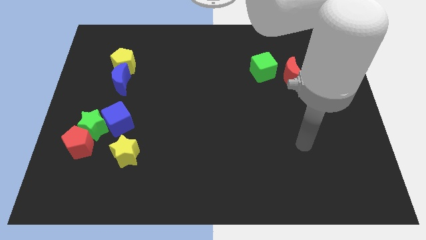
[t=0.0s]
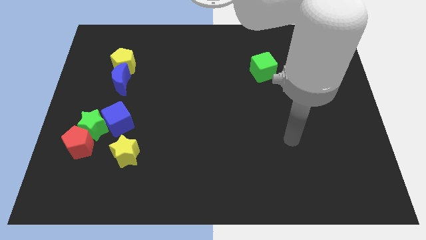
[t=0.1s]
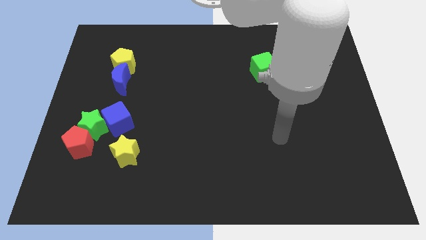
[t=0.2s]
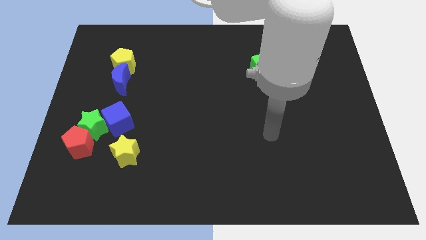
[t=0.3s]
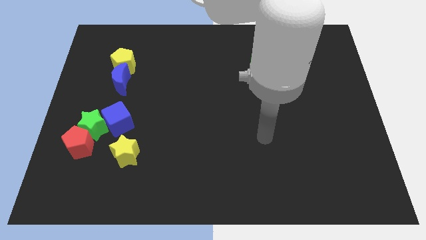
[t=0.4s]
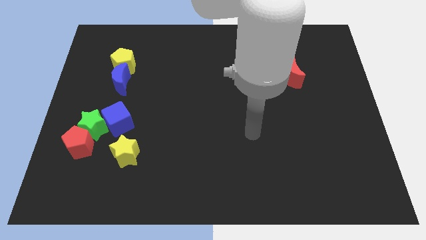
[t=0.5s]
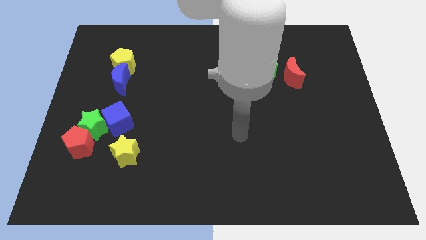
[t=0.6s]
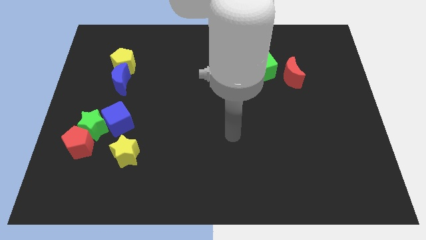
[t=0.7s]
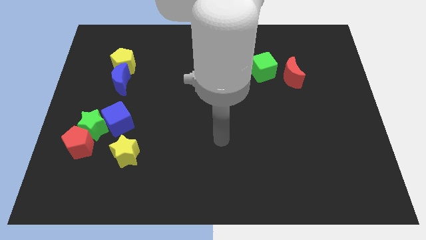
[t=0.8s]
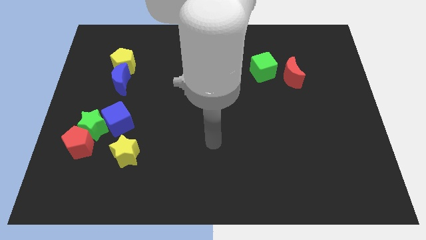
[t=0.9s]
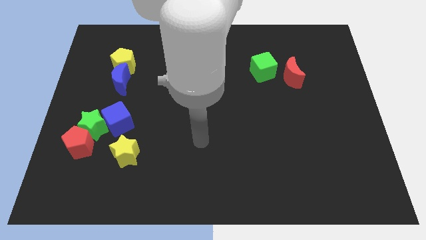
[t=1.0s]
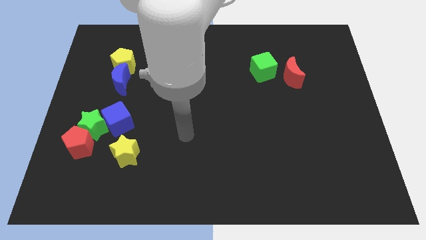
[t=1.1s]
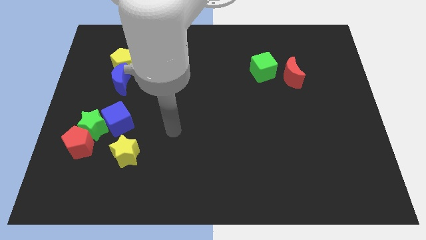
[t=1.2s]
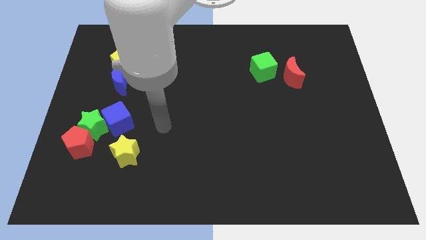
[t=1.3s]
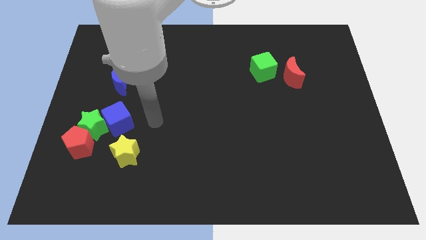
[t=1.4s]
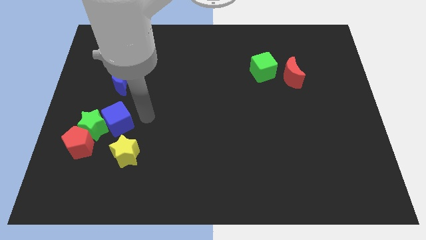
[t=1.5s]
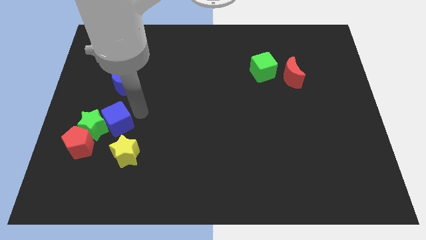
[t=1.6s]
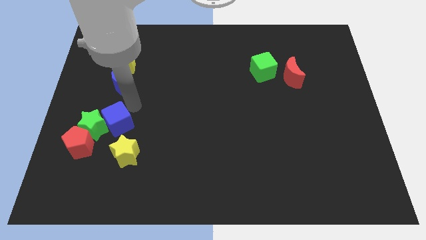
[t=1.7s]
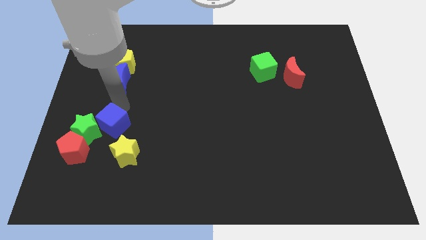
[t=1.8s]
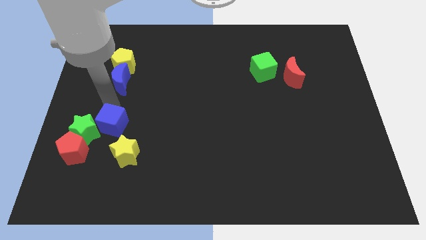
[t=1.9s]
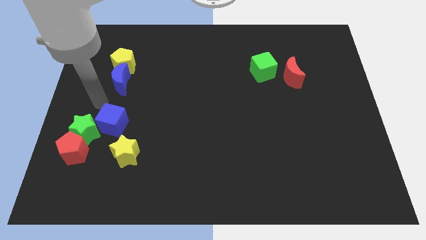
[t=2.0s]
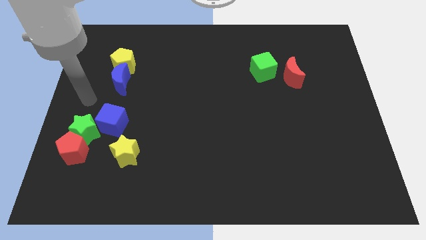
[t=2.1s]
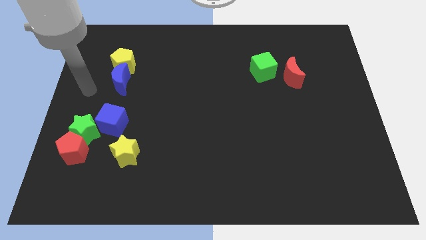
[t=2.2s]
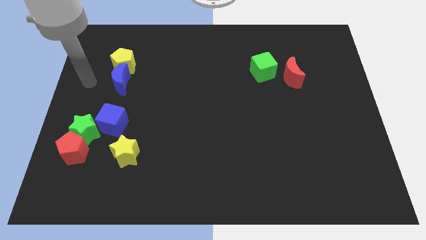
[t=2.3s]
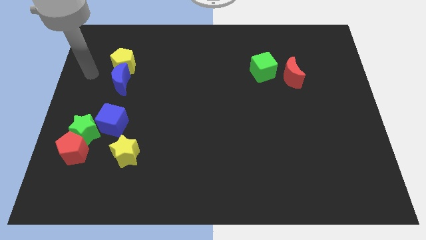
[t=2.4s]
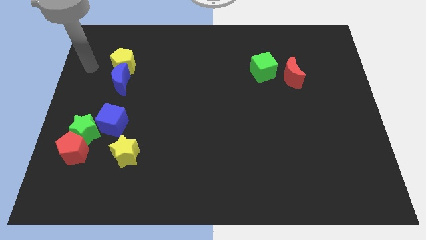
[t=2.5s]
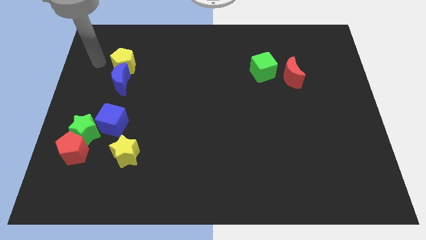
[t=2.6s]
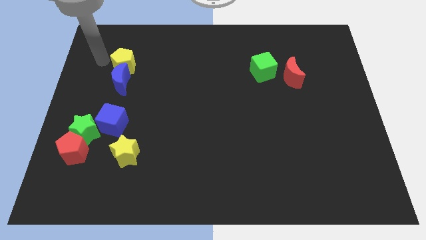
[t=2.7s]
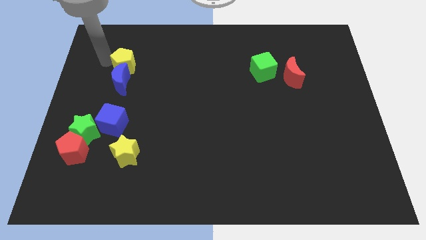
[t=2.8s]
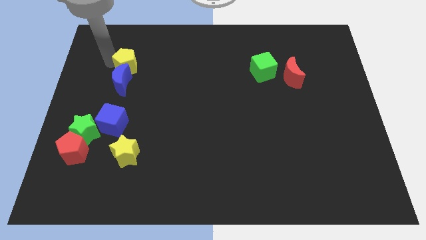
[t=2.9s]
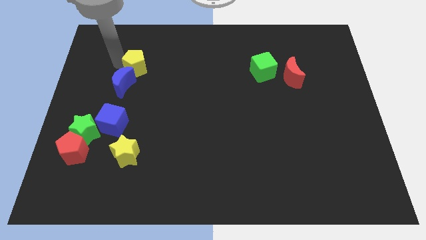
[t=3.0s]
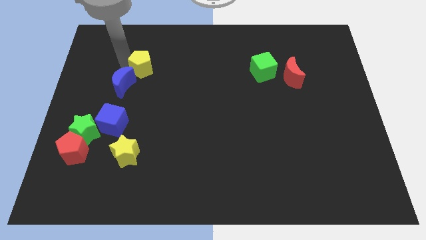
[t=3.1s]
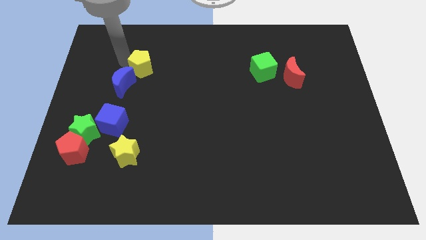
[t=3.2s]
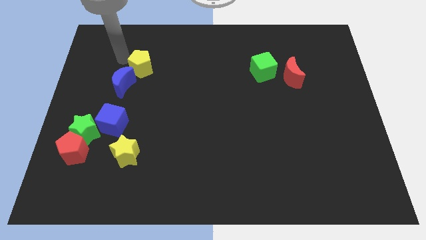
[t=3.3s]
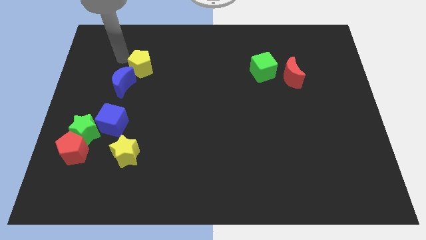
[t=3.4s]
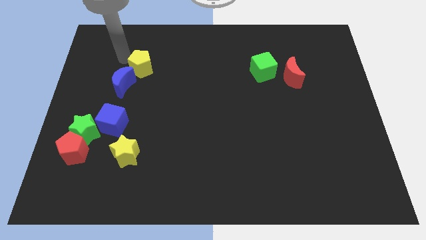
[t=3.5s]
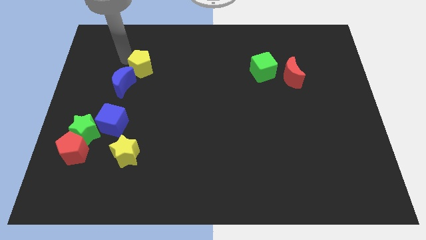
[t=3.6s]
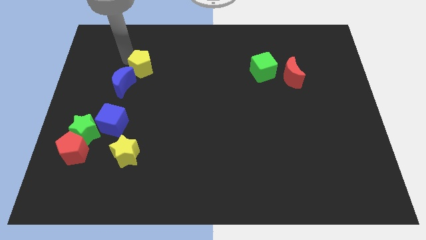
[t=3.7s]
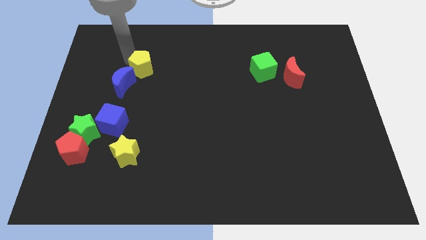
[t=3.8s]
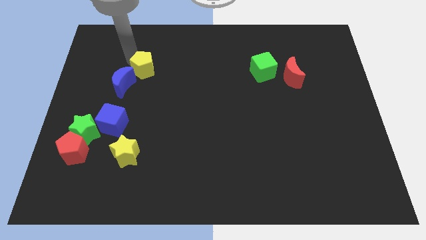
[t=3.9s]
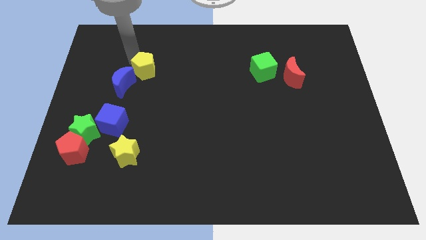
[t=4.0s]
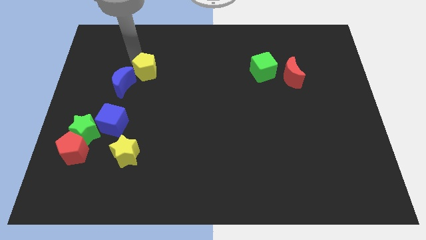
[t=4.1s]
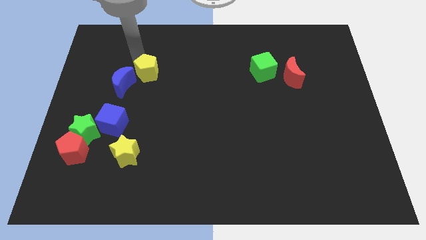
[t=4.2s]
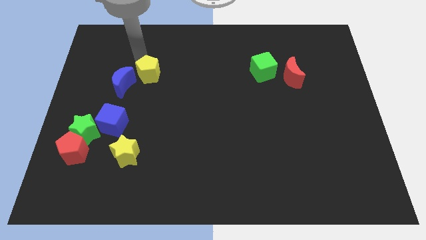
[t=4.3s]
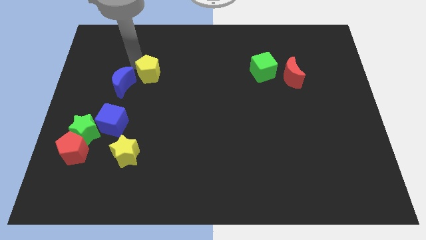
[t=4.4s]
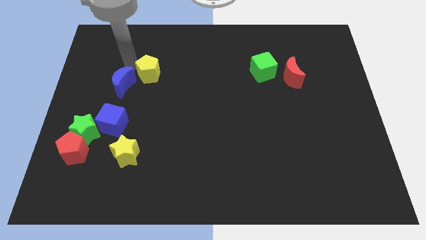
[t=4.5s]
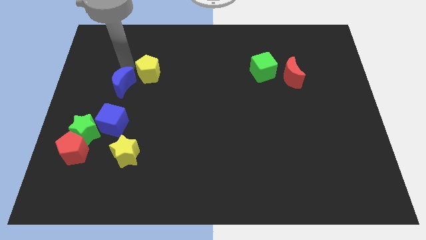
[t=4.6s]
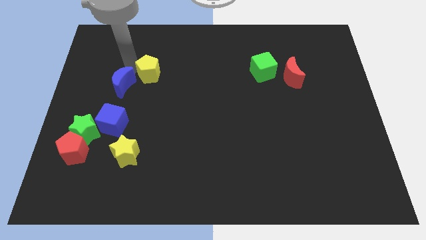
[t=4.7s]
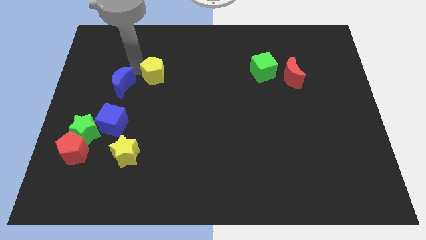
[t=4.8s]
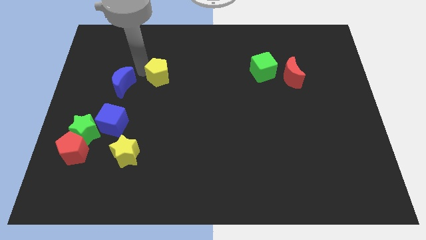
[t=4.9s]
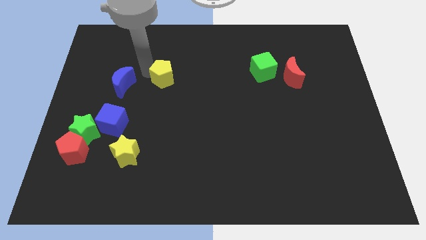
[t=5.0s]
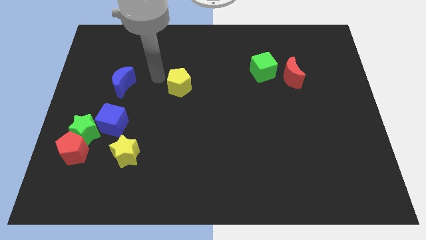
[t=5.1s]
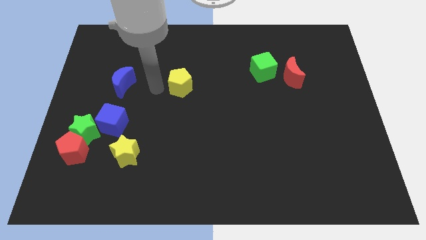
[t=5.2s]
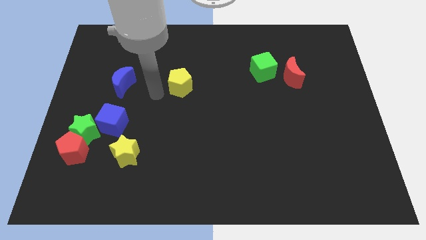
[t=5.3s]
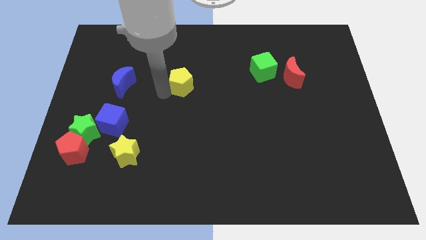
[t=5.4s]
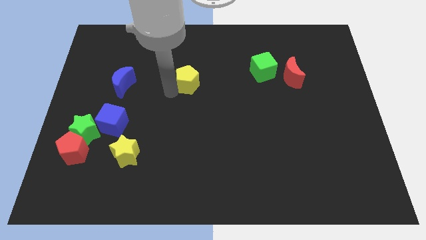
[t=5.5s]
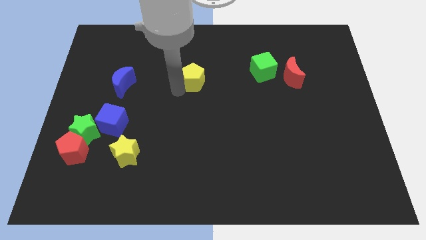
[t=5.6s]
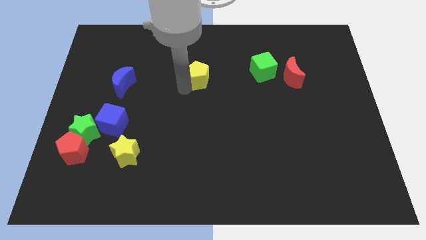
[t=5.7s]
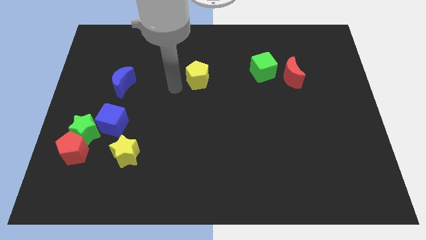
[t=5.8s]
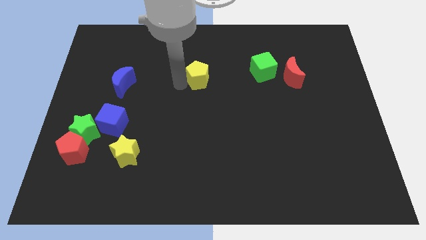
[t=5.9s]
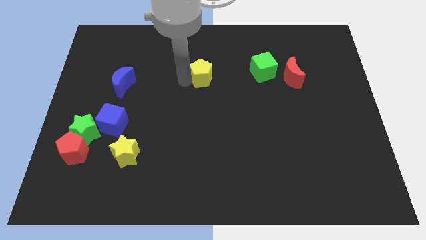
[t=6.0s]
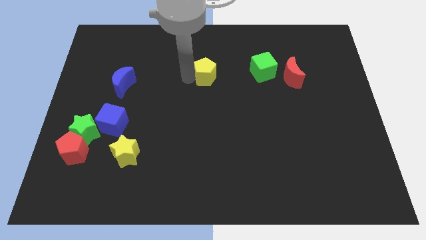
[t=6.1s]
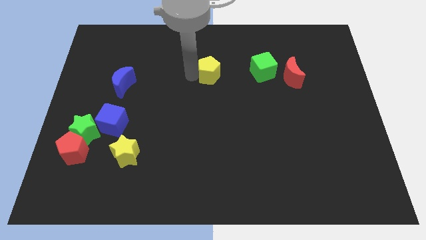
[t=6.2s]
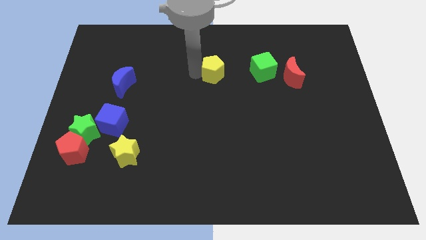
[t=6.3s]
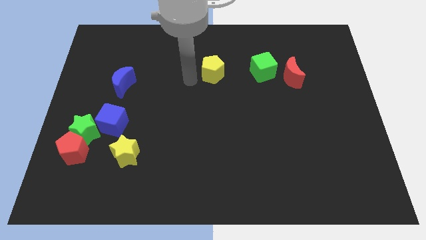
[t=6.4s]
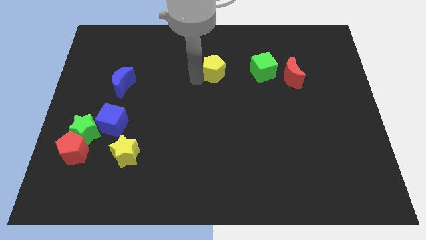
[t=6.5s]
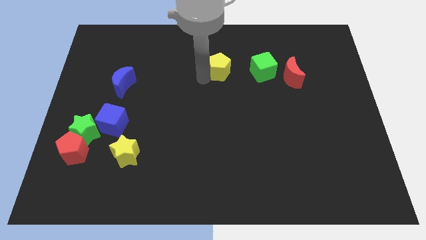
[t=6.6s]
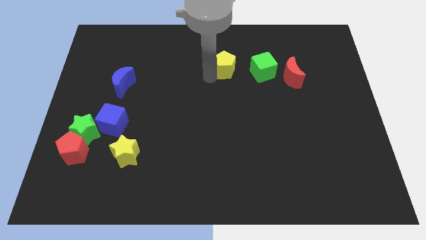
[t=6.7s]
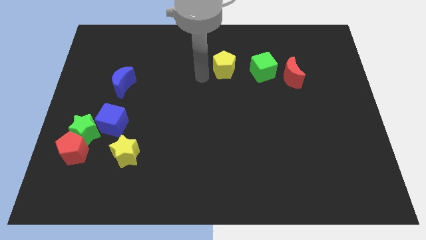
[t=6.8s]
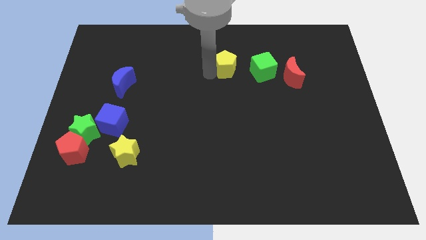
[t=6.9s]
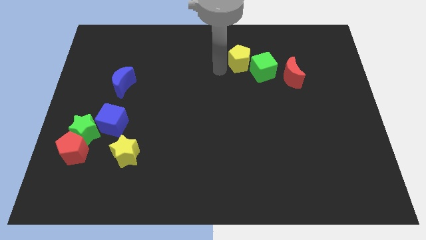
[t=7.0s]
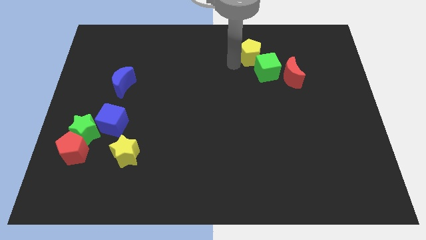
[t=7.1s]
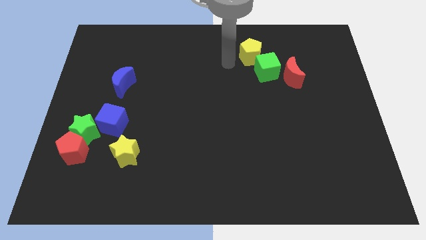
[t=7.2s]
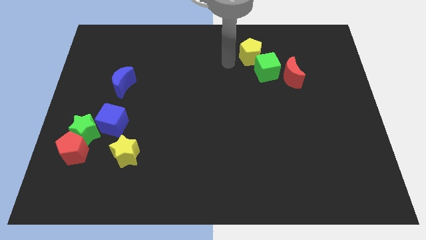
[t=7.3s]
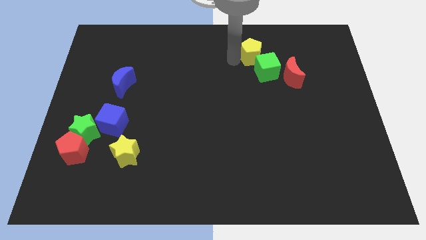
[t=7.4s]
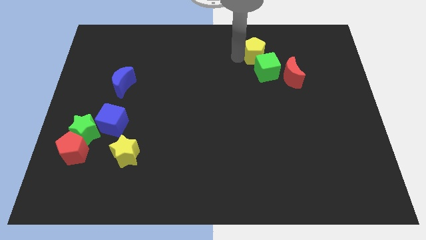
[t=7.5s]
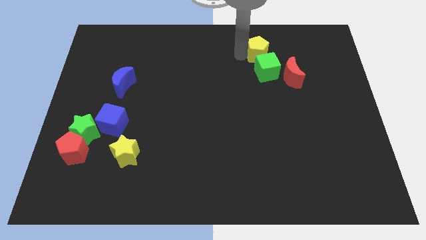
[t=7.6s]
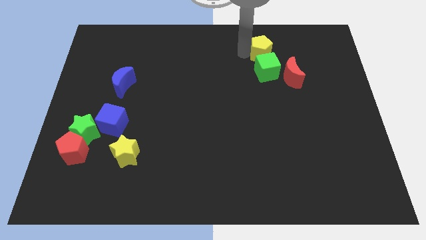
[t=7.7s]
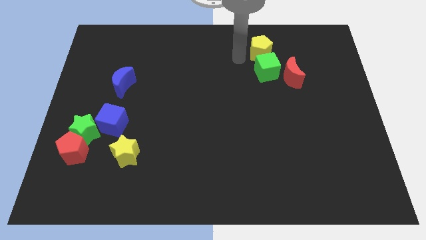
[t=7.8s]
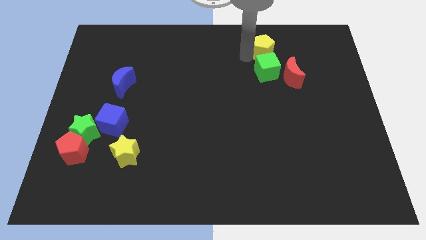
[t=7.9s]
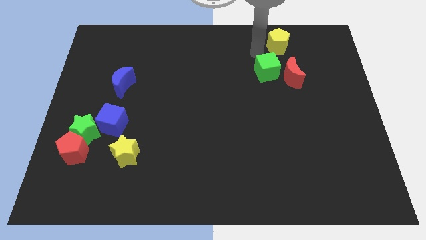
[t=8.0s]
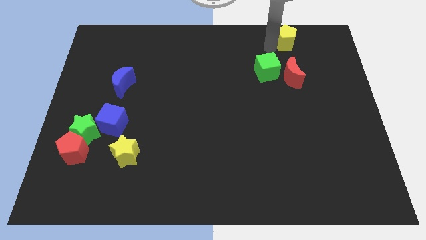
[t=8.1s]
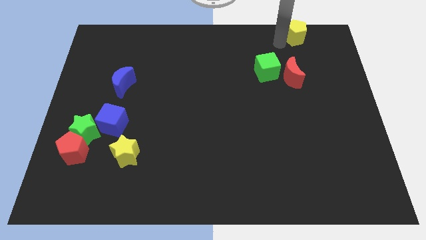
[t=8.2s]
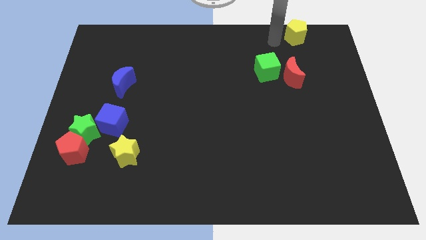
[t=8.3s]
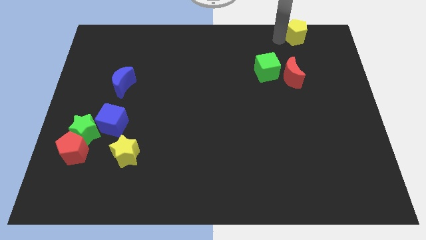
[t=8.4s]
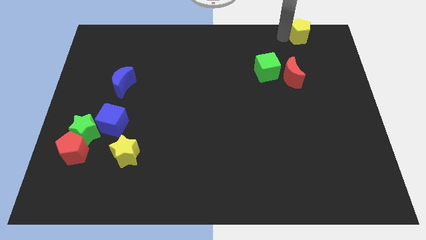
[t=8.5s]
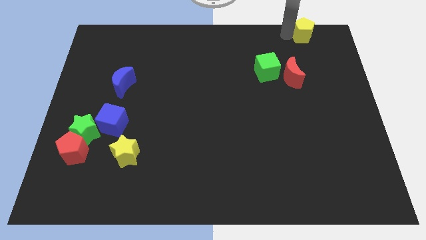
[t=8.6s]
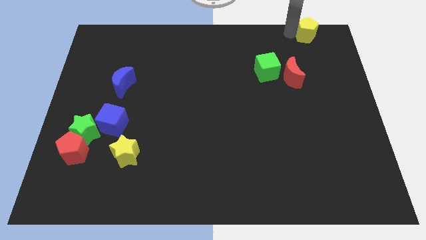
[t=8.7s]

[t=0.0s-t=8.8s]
slide the yellow pentagon to the top right
